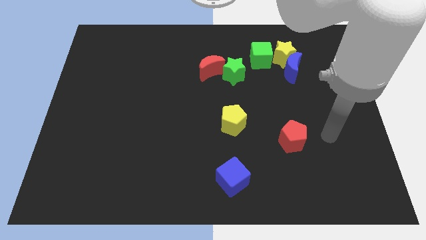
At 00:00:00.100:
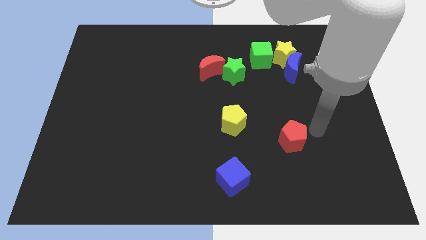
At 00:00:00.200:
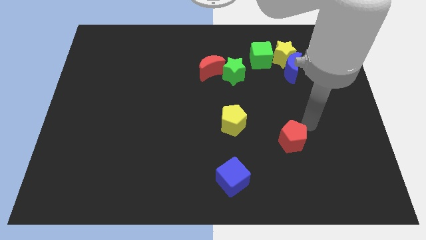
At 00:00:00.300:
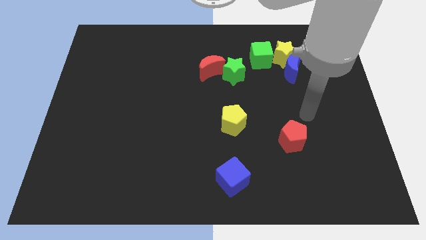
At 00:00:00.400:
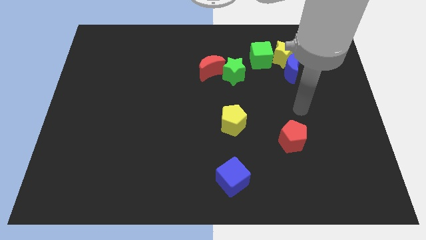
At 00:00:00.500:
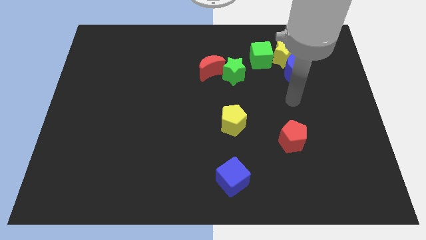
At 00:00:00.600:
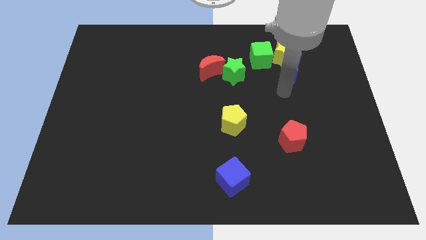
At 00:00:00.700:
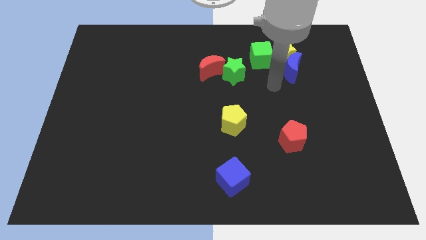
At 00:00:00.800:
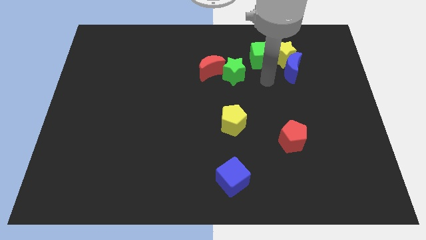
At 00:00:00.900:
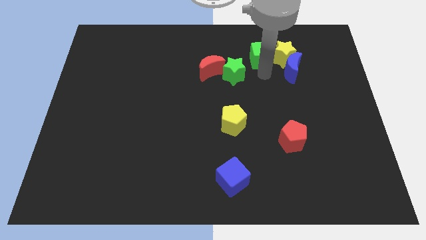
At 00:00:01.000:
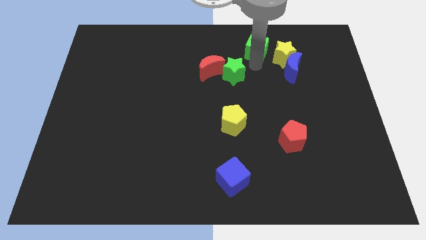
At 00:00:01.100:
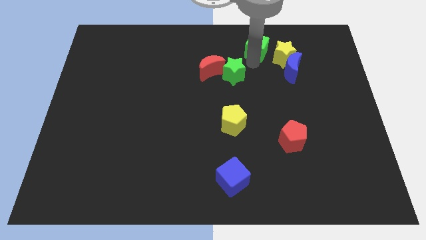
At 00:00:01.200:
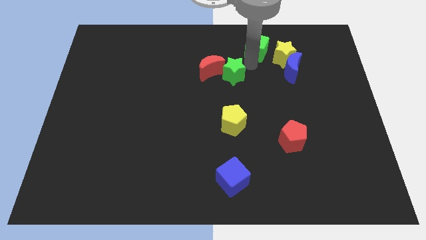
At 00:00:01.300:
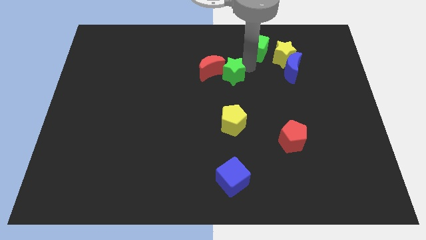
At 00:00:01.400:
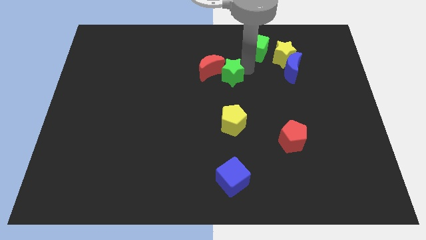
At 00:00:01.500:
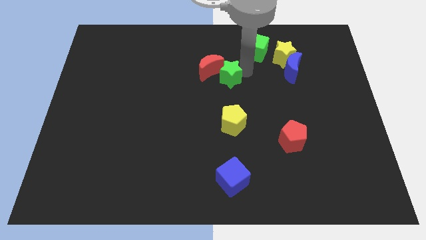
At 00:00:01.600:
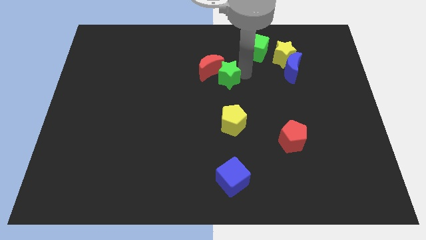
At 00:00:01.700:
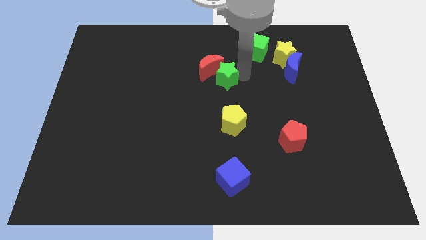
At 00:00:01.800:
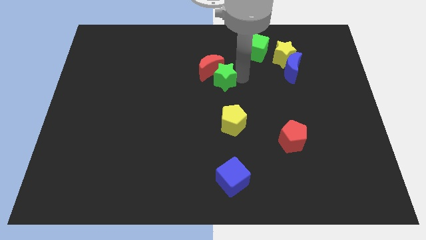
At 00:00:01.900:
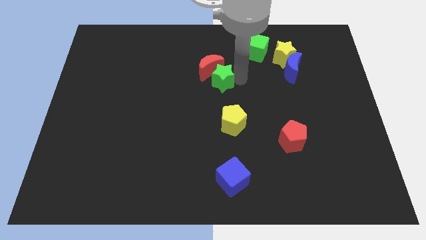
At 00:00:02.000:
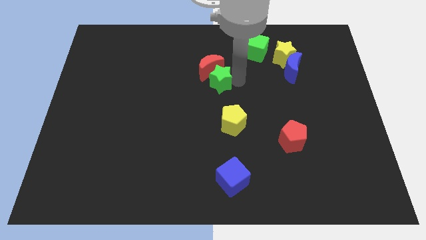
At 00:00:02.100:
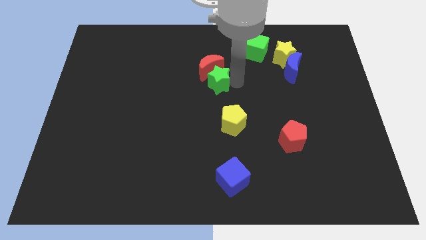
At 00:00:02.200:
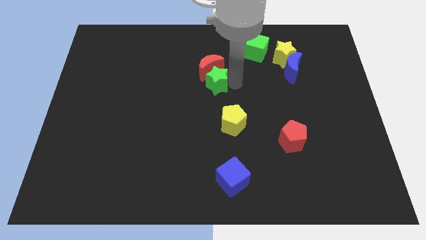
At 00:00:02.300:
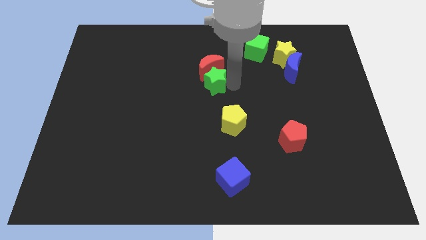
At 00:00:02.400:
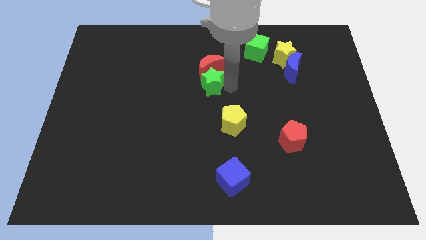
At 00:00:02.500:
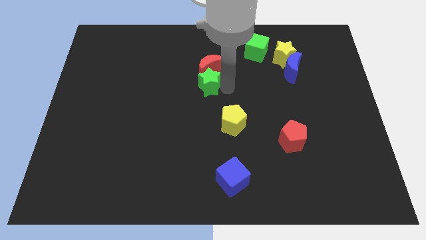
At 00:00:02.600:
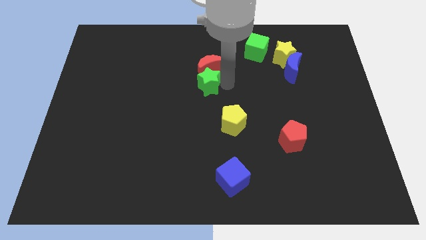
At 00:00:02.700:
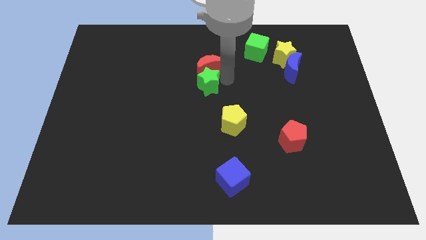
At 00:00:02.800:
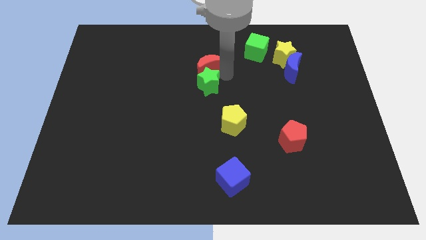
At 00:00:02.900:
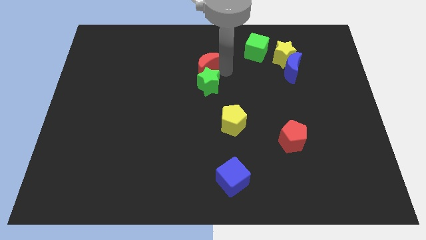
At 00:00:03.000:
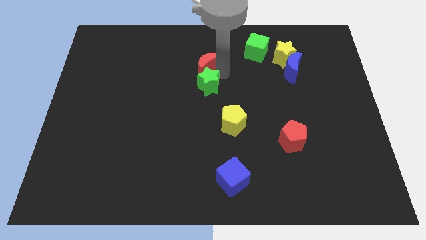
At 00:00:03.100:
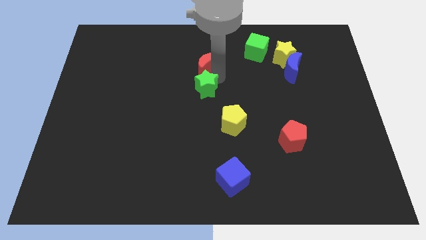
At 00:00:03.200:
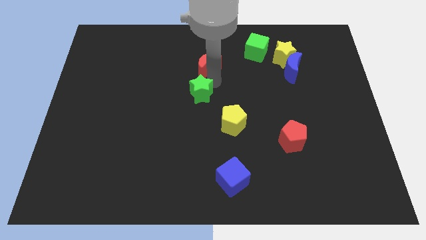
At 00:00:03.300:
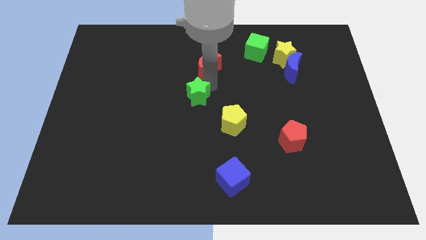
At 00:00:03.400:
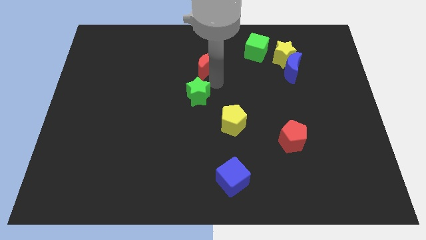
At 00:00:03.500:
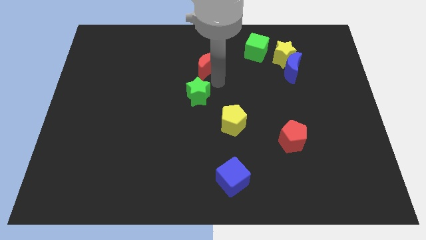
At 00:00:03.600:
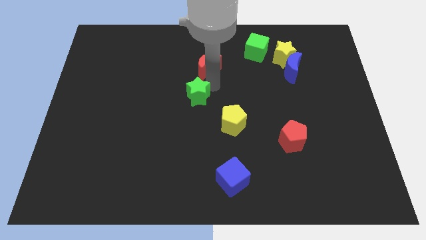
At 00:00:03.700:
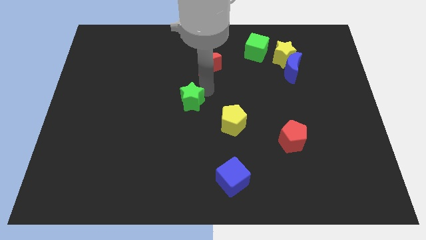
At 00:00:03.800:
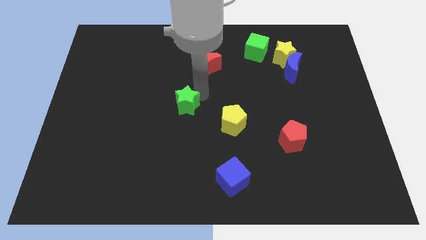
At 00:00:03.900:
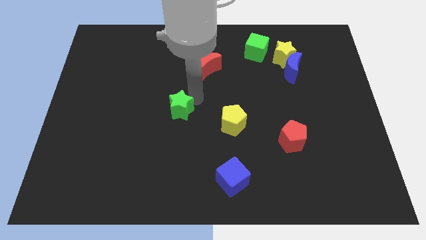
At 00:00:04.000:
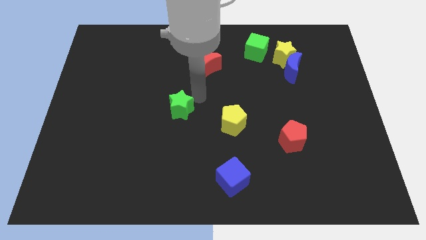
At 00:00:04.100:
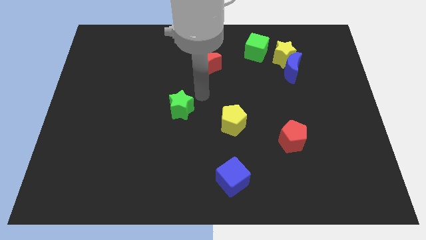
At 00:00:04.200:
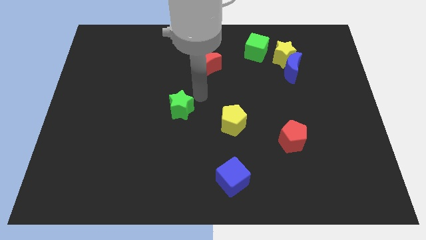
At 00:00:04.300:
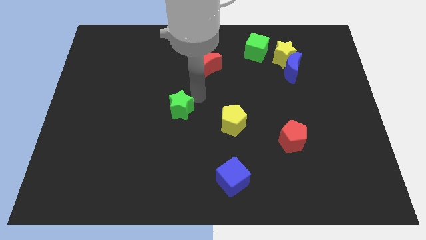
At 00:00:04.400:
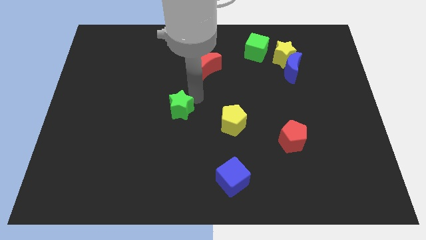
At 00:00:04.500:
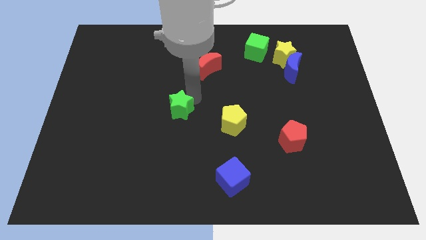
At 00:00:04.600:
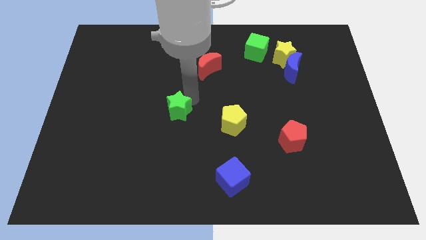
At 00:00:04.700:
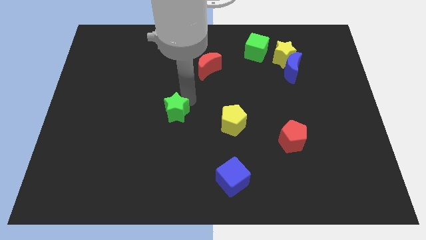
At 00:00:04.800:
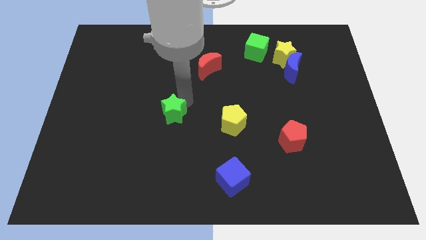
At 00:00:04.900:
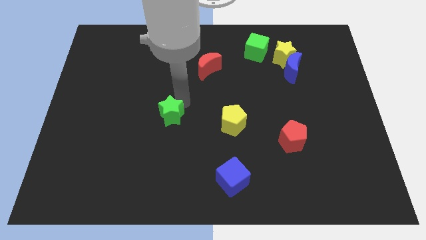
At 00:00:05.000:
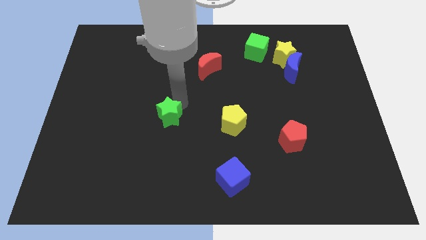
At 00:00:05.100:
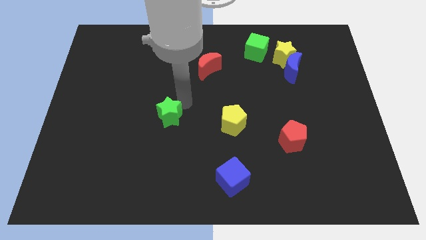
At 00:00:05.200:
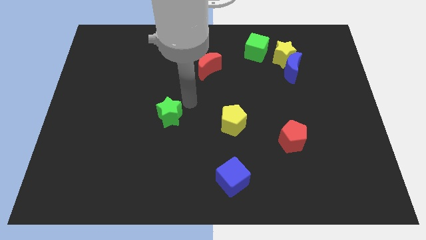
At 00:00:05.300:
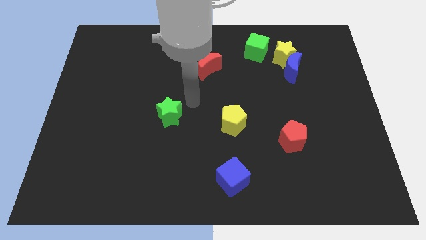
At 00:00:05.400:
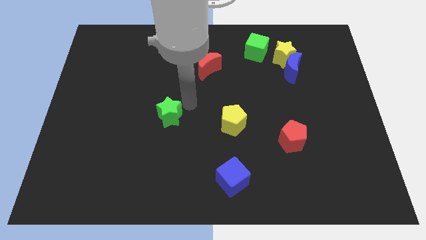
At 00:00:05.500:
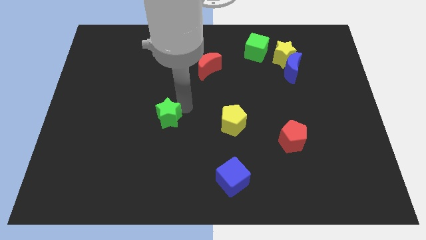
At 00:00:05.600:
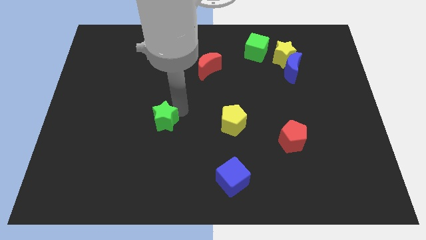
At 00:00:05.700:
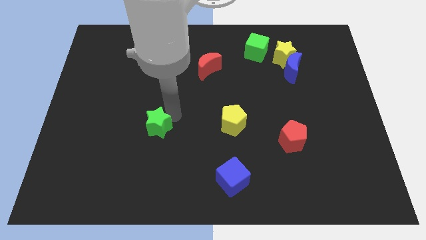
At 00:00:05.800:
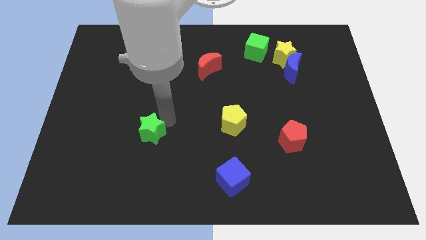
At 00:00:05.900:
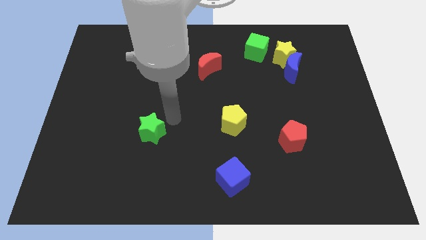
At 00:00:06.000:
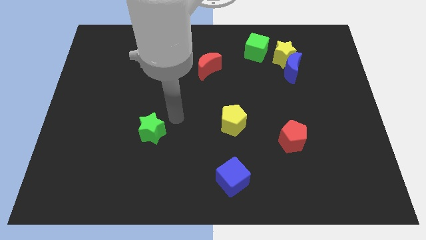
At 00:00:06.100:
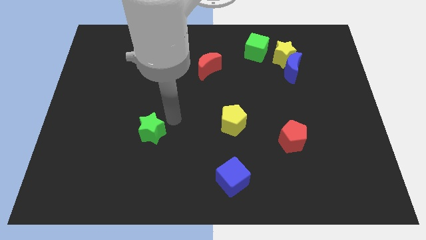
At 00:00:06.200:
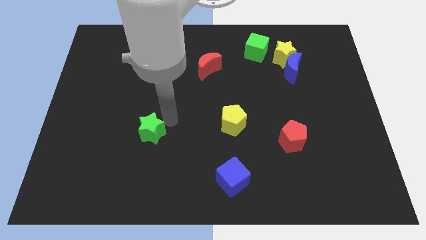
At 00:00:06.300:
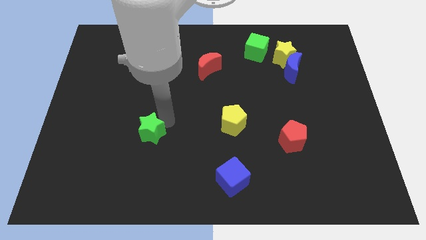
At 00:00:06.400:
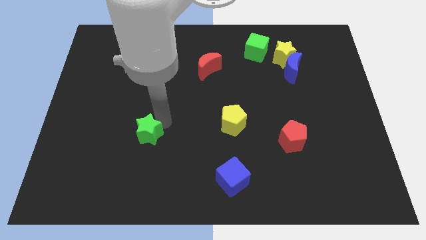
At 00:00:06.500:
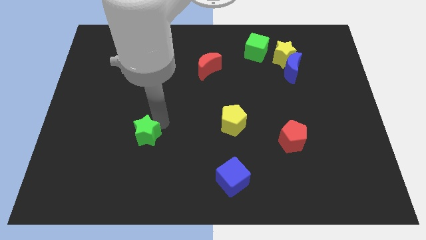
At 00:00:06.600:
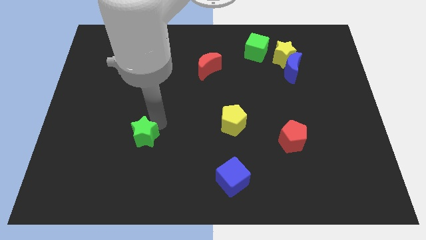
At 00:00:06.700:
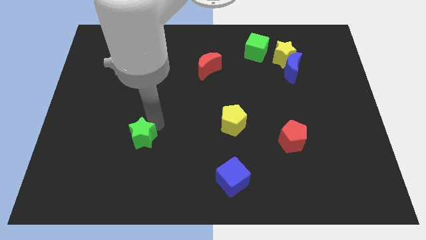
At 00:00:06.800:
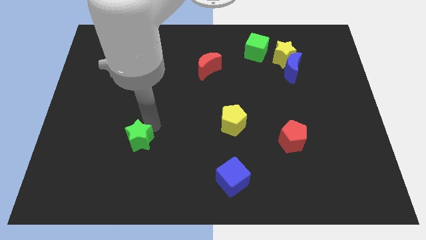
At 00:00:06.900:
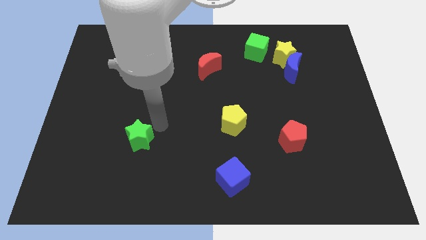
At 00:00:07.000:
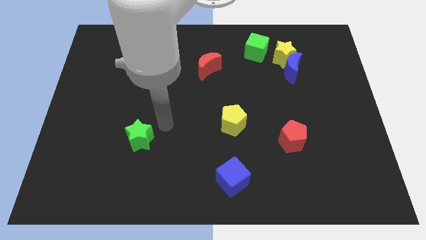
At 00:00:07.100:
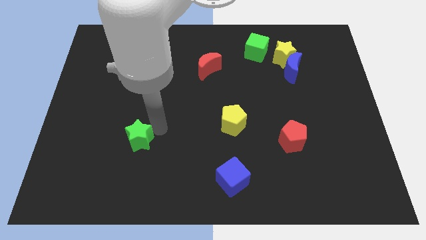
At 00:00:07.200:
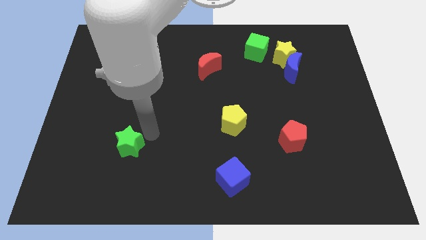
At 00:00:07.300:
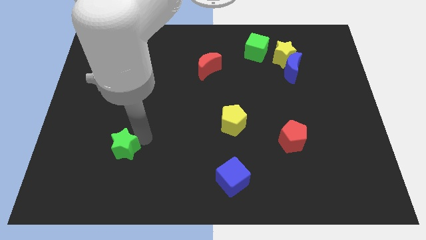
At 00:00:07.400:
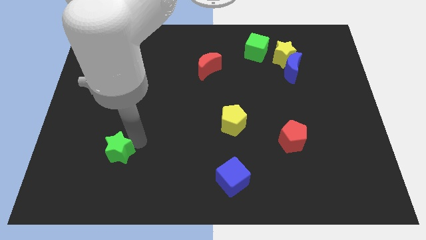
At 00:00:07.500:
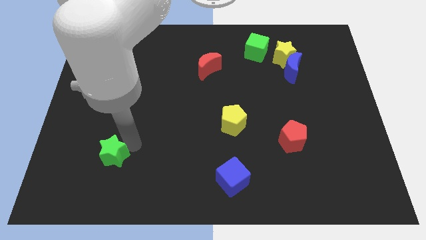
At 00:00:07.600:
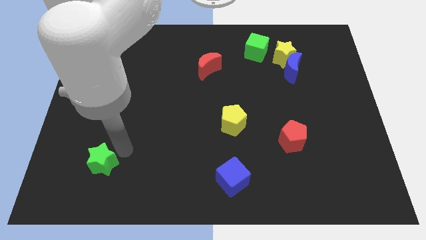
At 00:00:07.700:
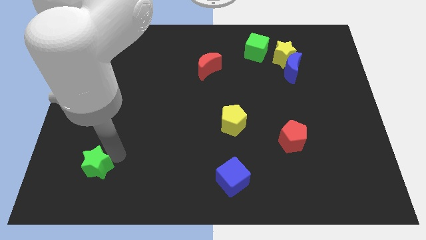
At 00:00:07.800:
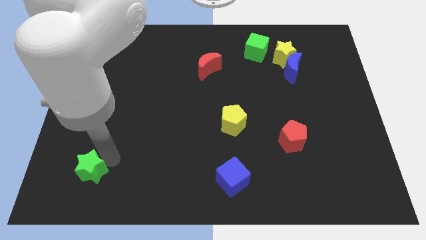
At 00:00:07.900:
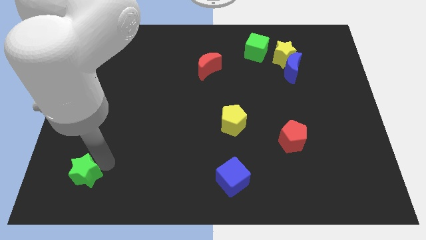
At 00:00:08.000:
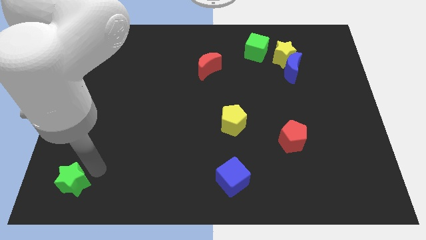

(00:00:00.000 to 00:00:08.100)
push the green star to the bottom left corner
